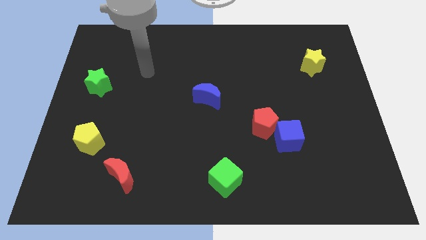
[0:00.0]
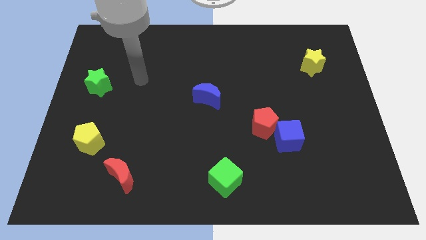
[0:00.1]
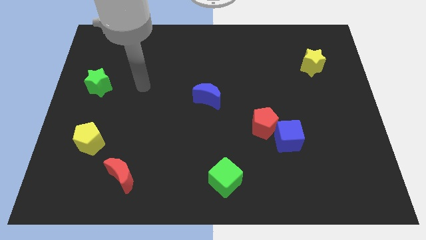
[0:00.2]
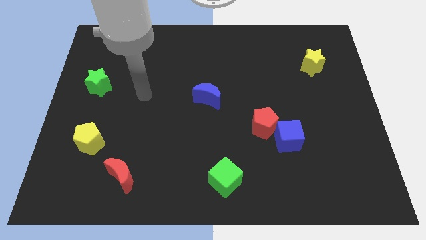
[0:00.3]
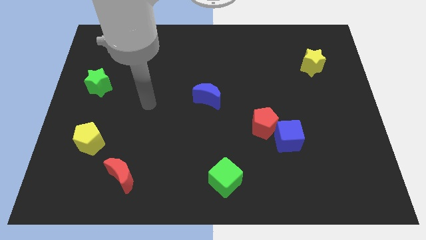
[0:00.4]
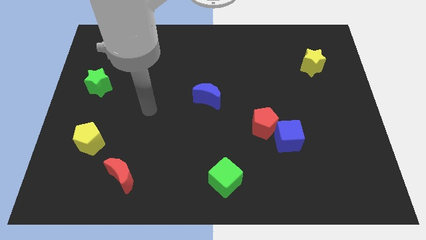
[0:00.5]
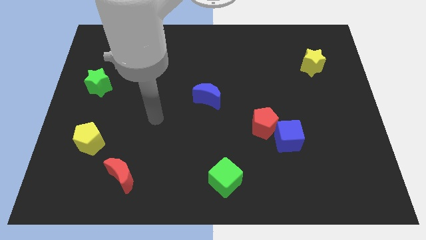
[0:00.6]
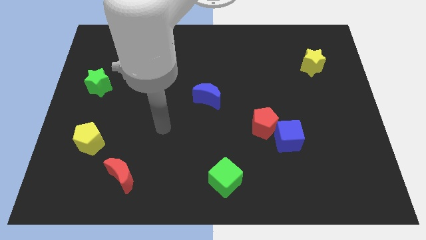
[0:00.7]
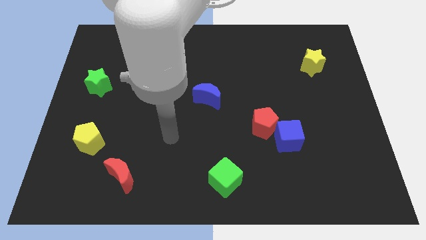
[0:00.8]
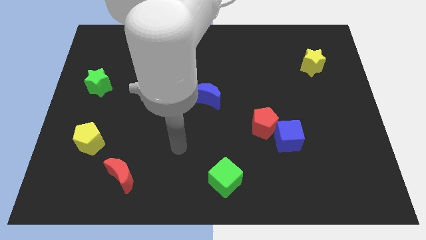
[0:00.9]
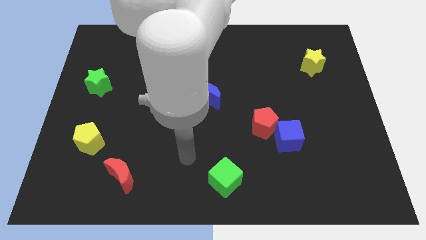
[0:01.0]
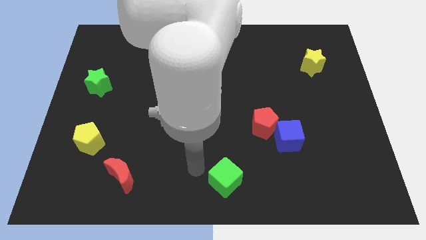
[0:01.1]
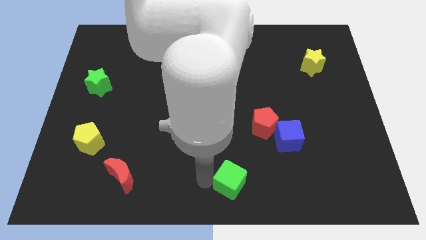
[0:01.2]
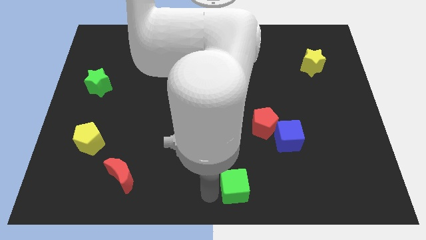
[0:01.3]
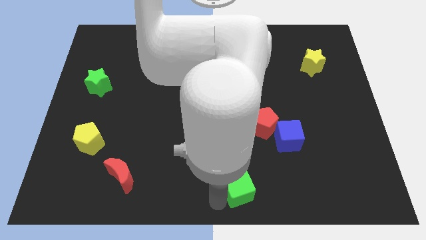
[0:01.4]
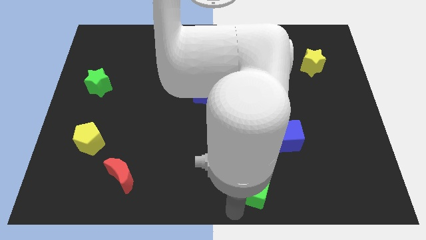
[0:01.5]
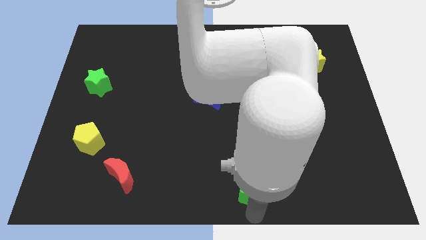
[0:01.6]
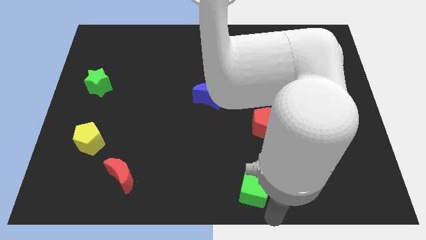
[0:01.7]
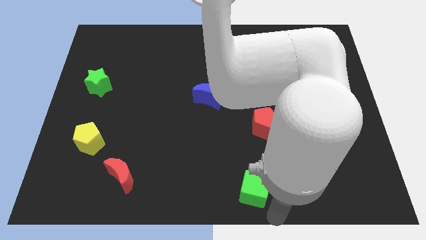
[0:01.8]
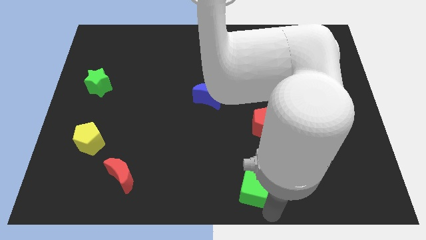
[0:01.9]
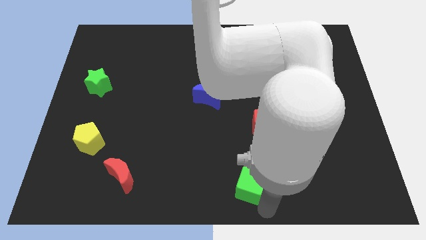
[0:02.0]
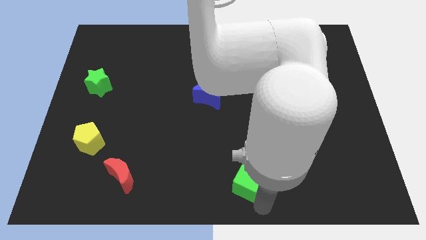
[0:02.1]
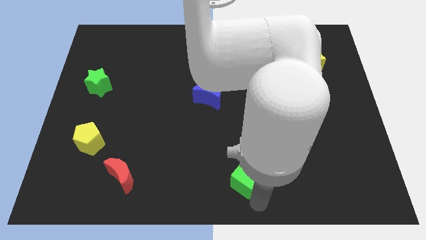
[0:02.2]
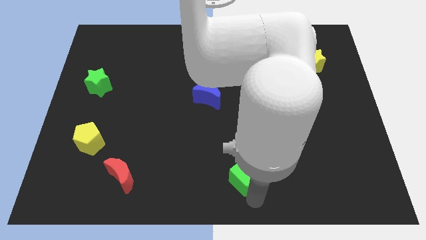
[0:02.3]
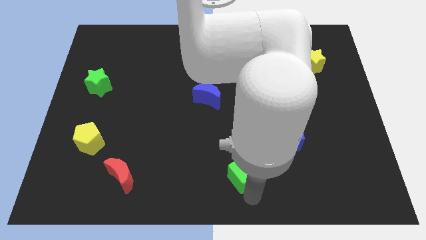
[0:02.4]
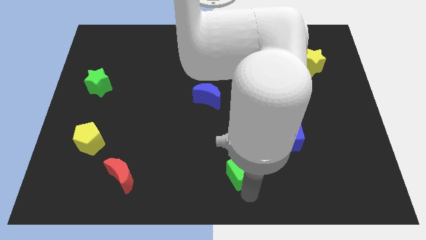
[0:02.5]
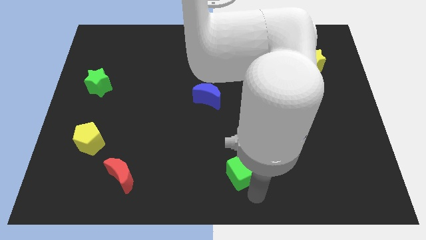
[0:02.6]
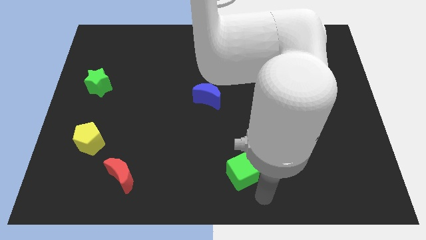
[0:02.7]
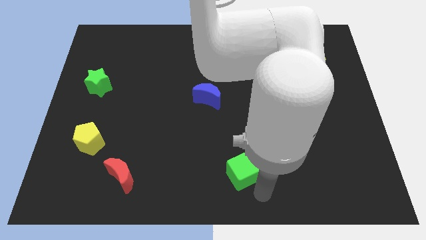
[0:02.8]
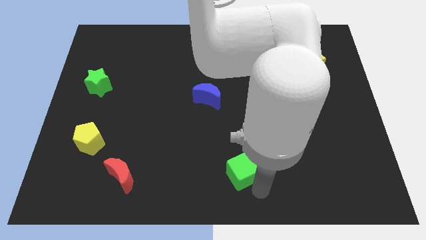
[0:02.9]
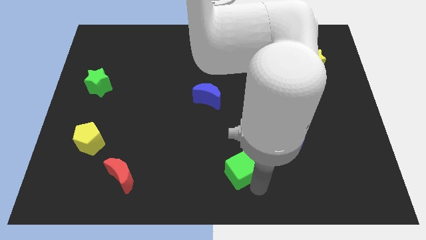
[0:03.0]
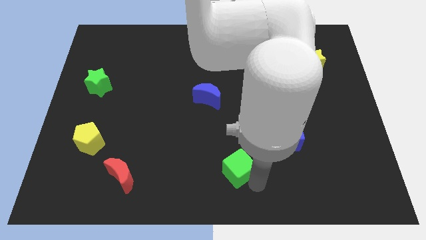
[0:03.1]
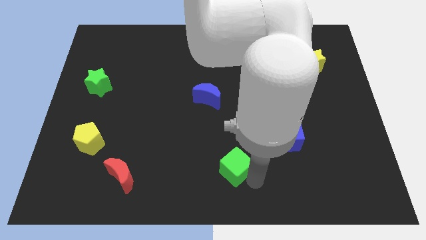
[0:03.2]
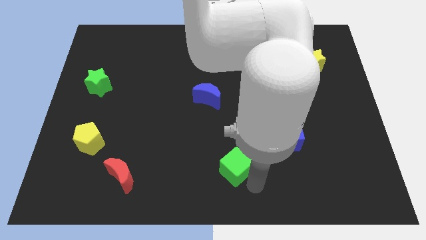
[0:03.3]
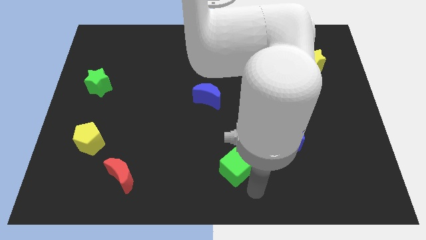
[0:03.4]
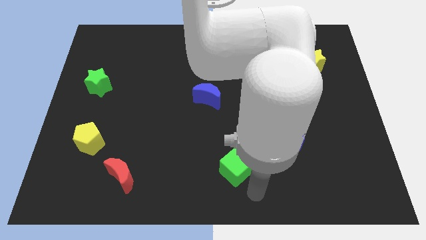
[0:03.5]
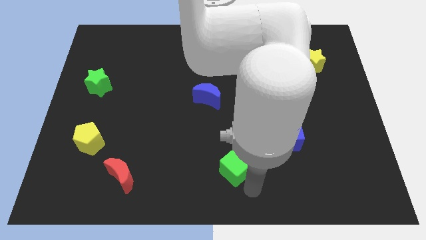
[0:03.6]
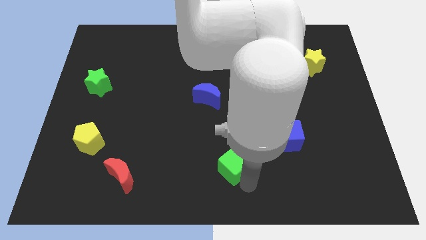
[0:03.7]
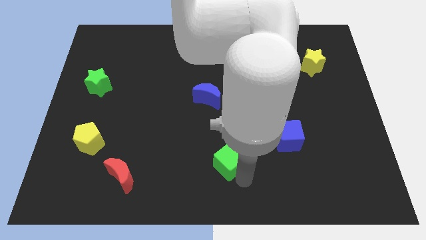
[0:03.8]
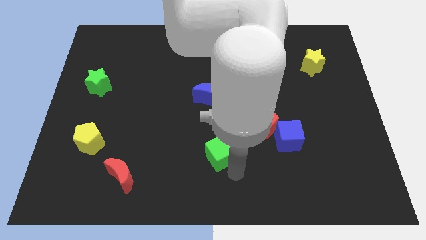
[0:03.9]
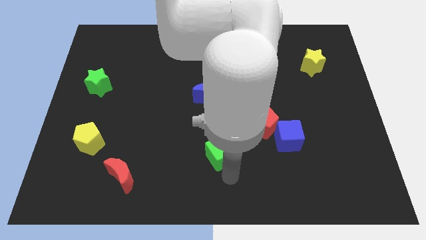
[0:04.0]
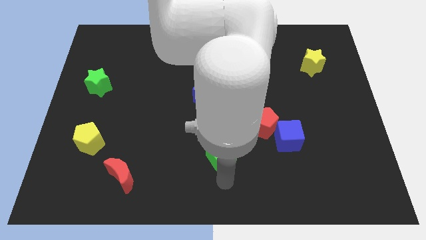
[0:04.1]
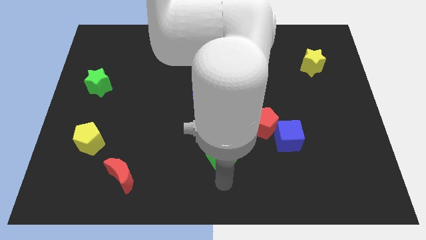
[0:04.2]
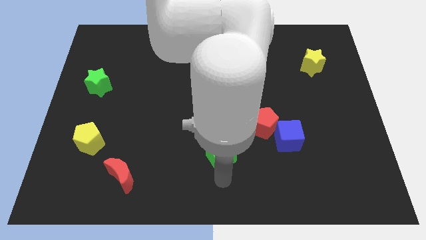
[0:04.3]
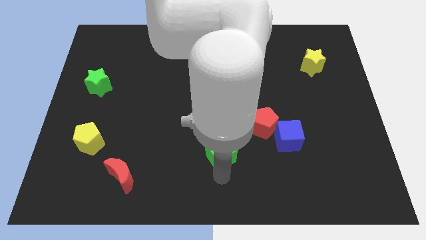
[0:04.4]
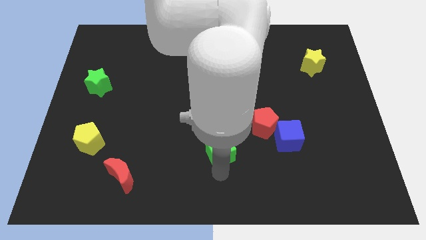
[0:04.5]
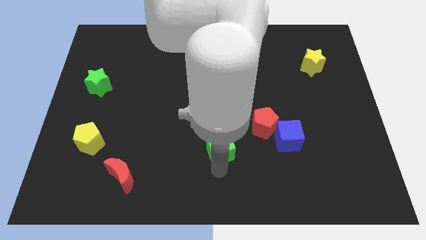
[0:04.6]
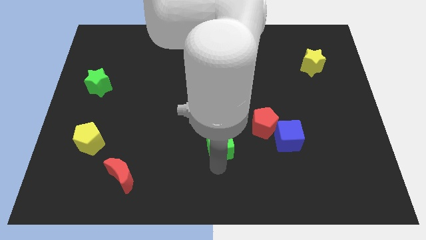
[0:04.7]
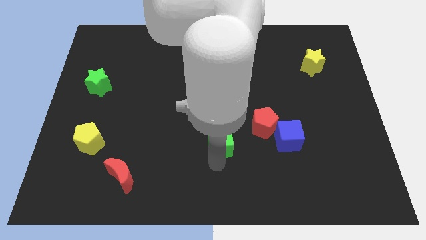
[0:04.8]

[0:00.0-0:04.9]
move the green cube to the left of the red pentagon

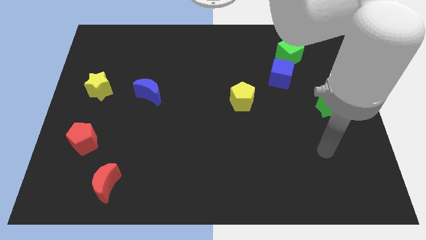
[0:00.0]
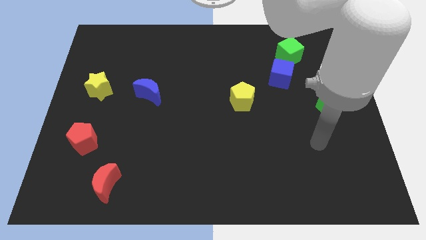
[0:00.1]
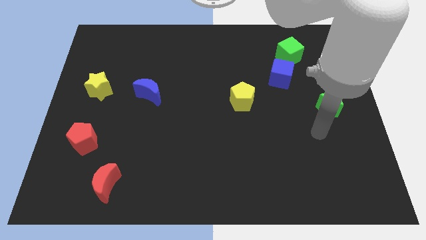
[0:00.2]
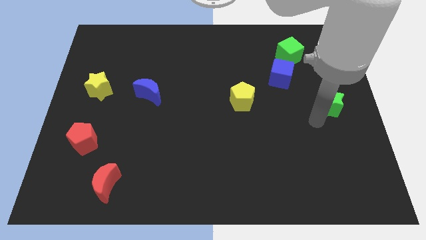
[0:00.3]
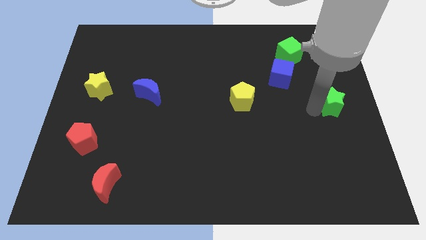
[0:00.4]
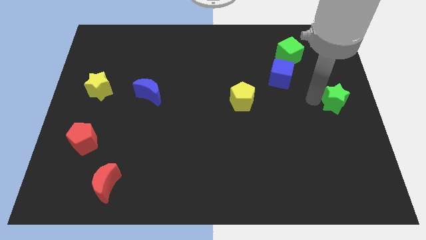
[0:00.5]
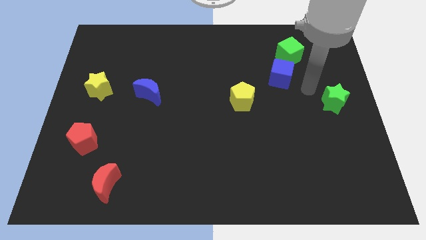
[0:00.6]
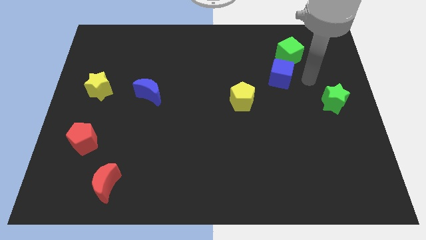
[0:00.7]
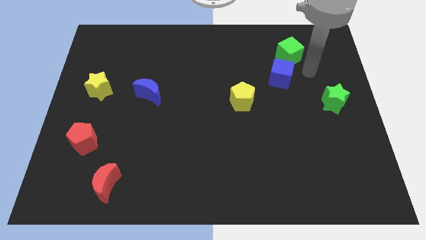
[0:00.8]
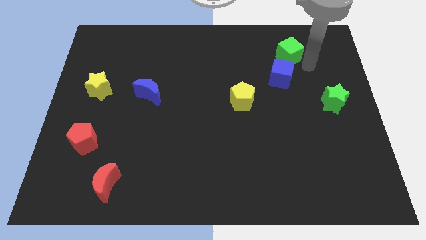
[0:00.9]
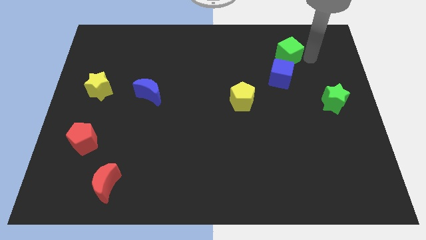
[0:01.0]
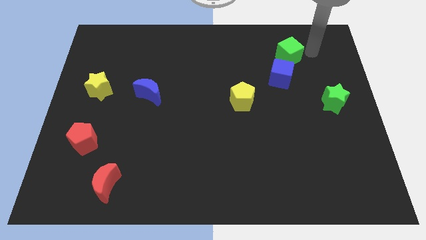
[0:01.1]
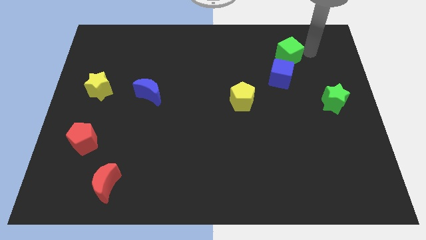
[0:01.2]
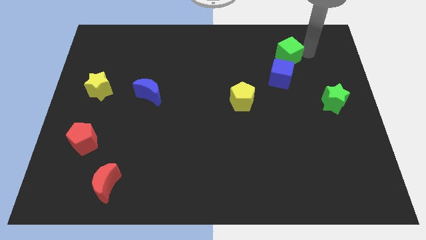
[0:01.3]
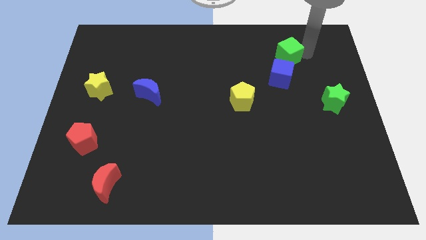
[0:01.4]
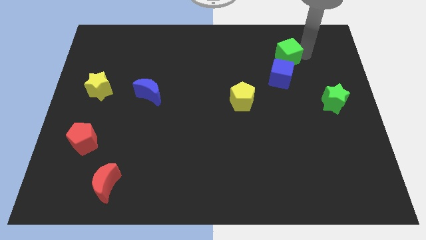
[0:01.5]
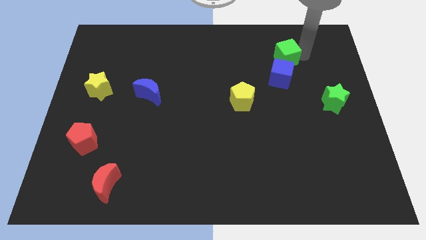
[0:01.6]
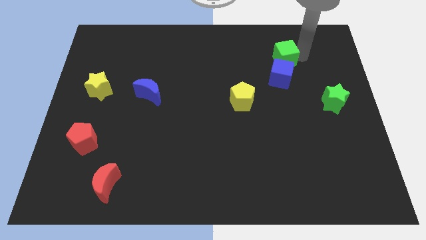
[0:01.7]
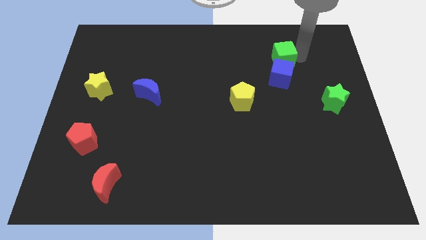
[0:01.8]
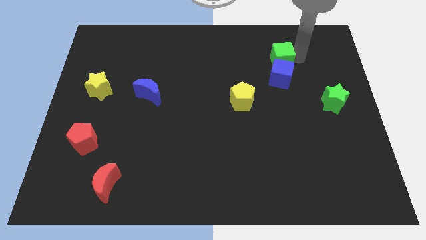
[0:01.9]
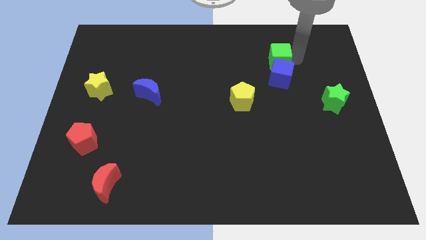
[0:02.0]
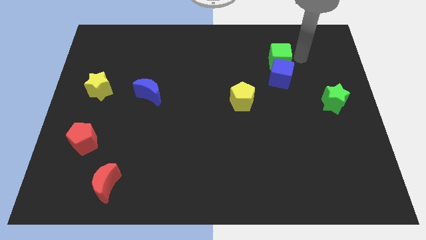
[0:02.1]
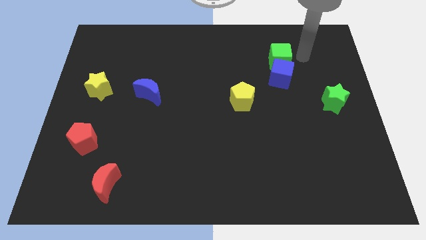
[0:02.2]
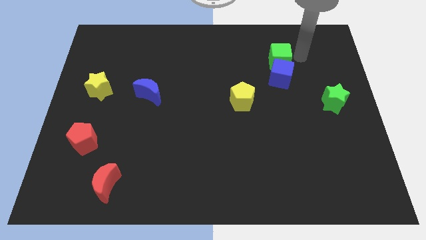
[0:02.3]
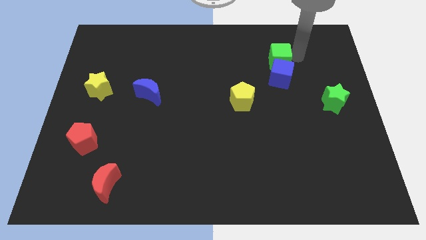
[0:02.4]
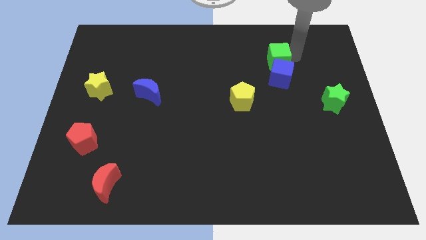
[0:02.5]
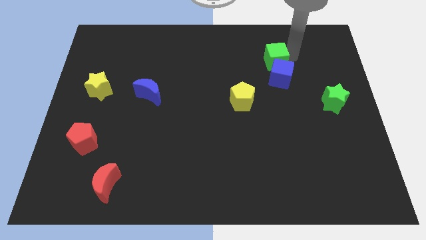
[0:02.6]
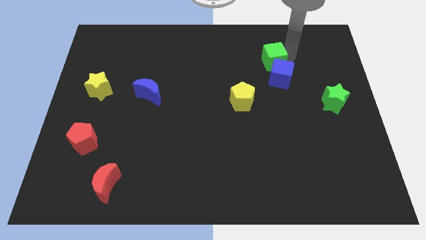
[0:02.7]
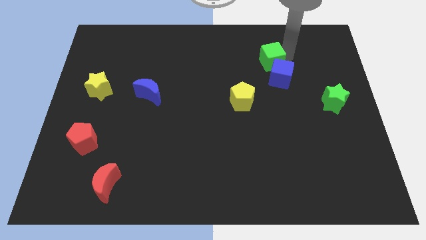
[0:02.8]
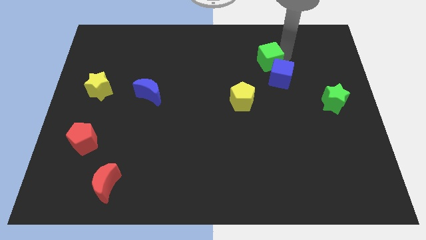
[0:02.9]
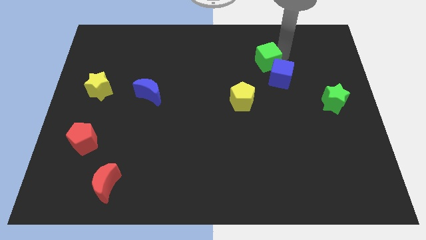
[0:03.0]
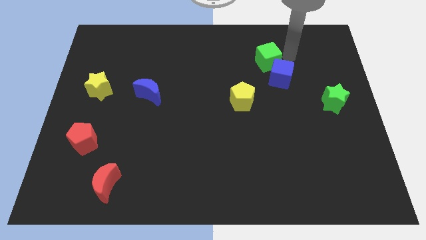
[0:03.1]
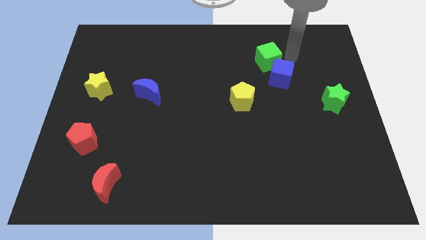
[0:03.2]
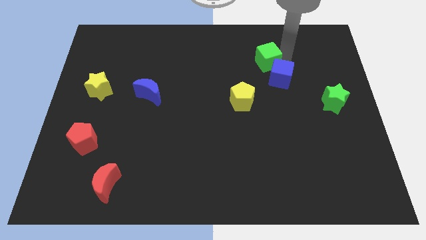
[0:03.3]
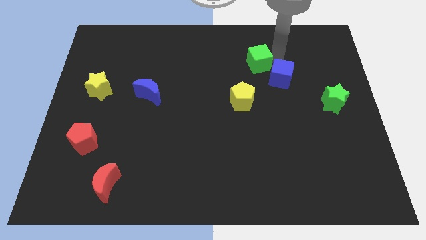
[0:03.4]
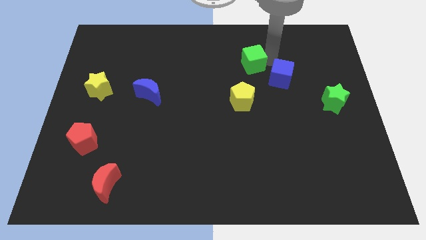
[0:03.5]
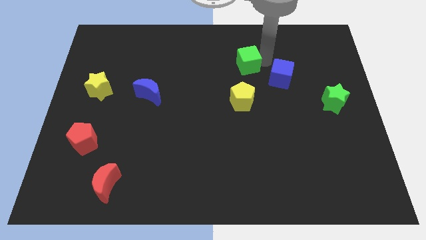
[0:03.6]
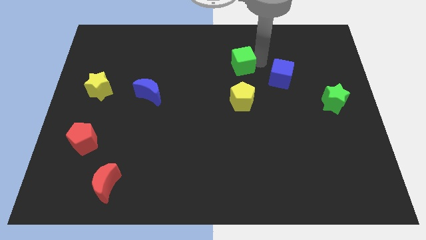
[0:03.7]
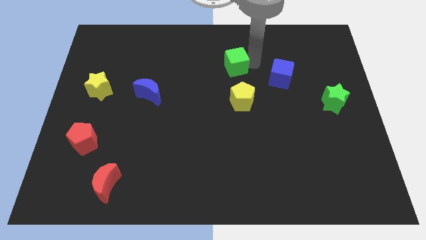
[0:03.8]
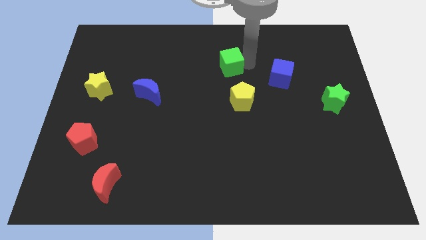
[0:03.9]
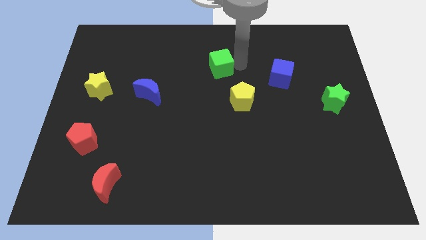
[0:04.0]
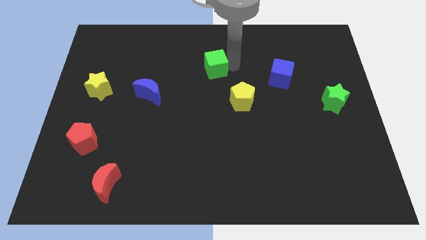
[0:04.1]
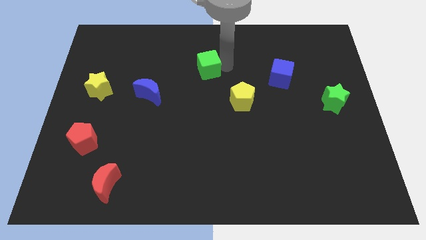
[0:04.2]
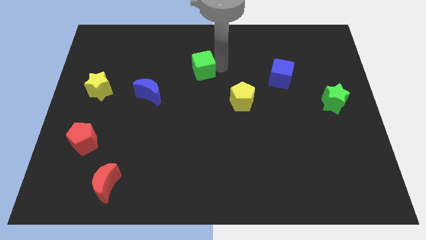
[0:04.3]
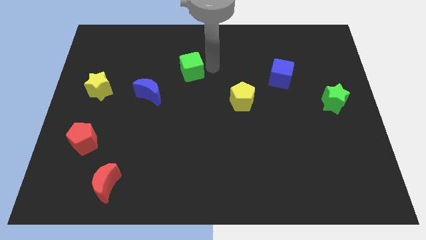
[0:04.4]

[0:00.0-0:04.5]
move the green cube to the top right of the blue moon
